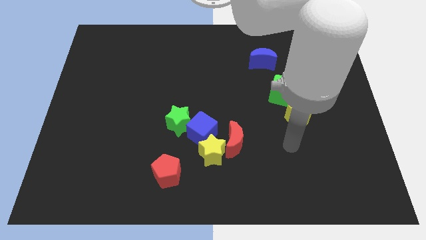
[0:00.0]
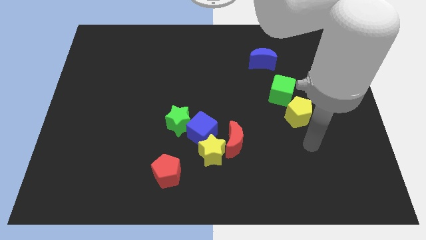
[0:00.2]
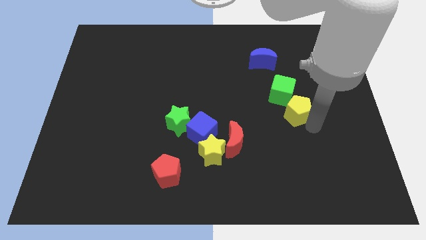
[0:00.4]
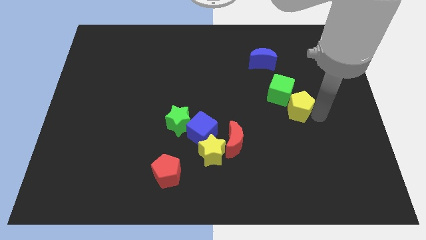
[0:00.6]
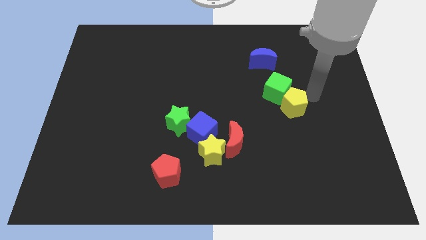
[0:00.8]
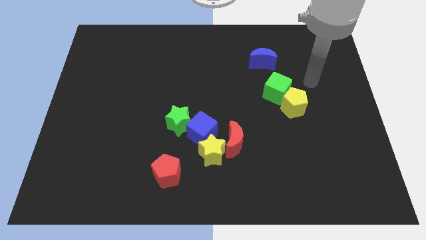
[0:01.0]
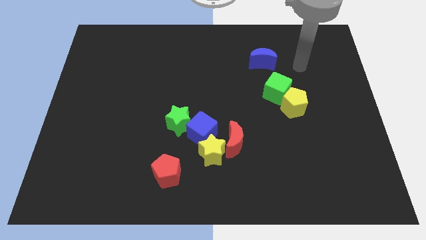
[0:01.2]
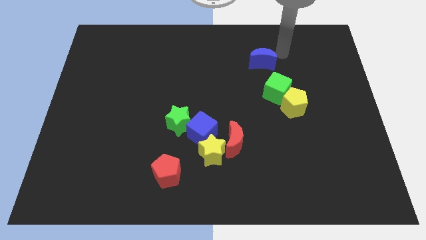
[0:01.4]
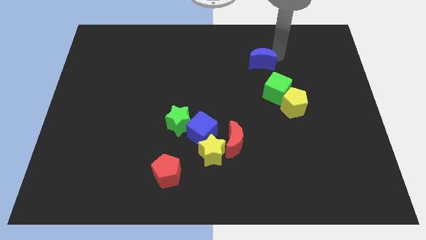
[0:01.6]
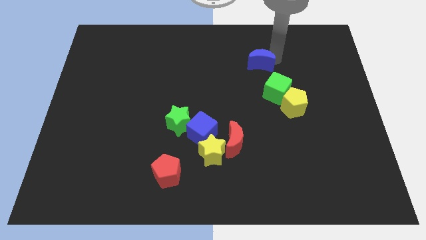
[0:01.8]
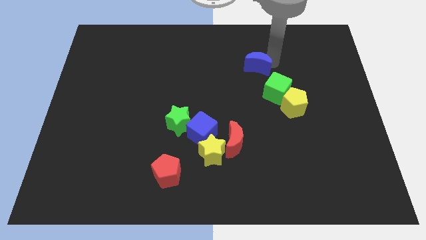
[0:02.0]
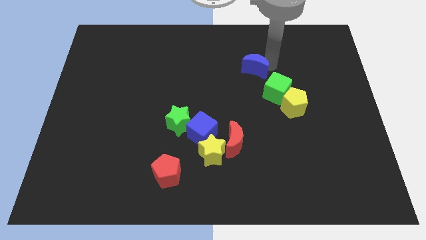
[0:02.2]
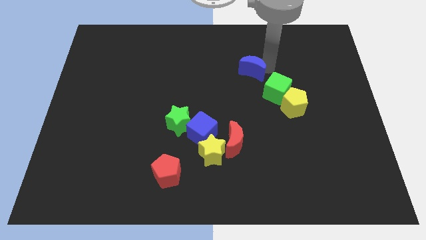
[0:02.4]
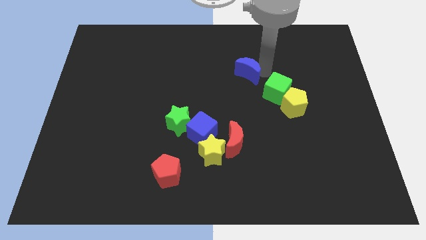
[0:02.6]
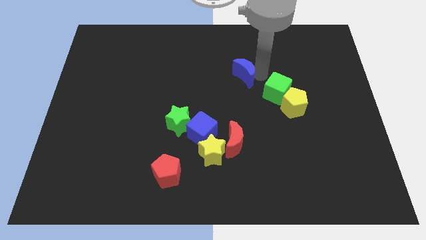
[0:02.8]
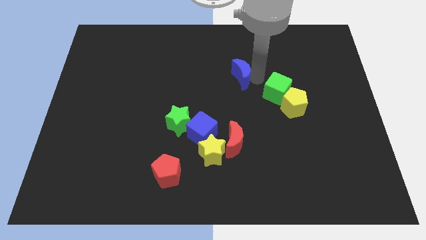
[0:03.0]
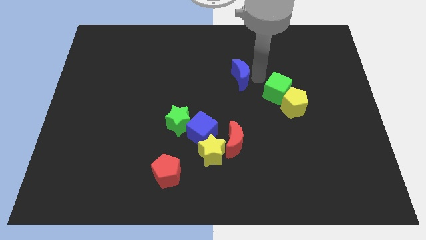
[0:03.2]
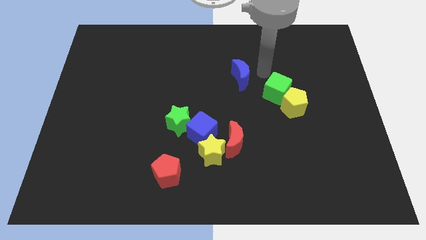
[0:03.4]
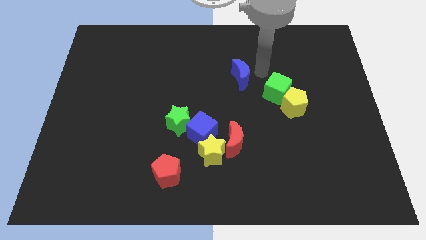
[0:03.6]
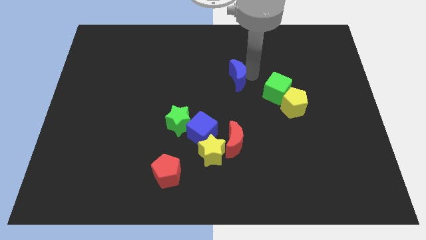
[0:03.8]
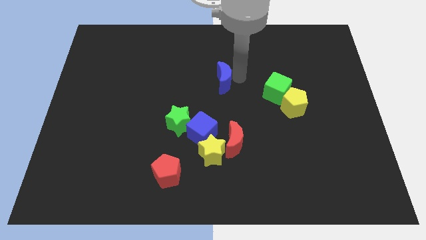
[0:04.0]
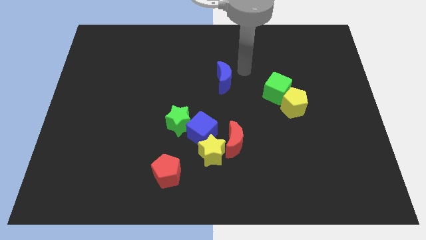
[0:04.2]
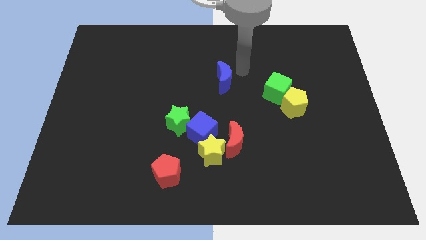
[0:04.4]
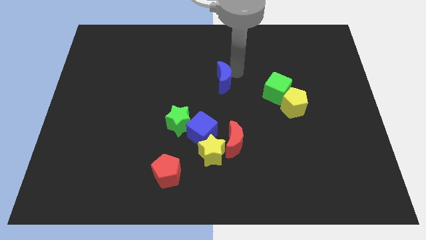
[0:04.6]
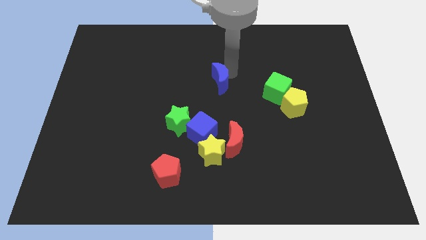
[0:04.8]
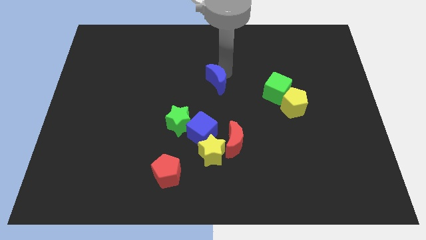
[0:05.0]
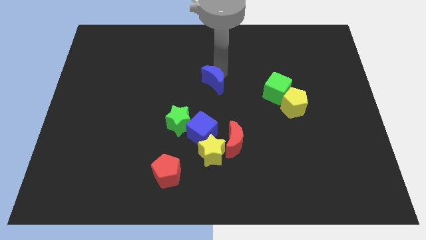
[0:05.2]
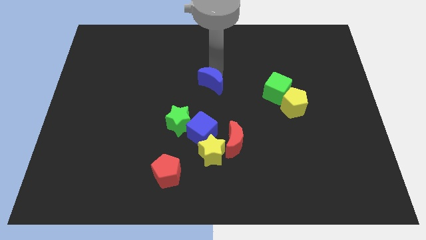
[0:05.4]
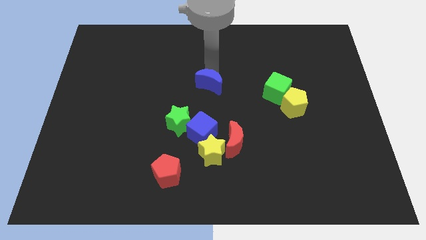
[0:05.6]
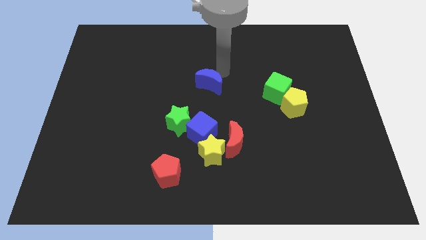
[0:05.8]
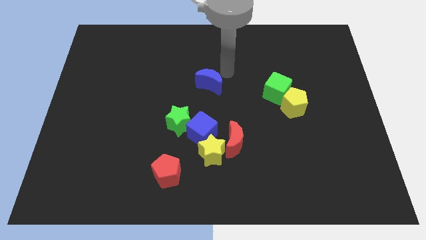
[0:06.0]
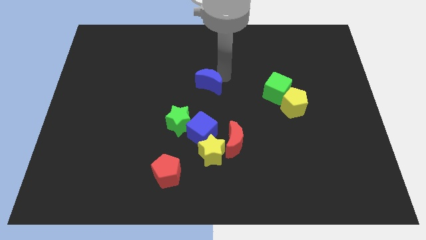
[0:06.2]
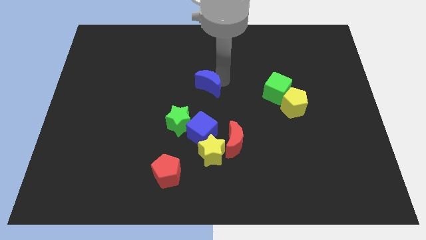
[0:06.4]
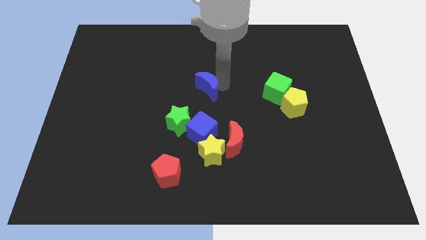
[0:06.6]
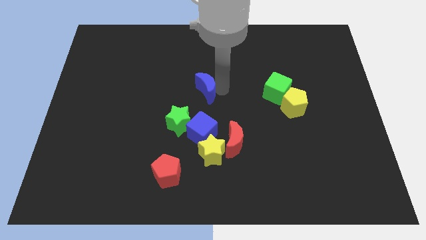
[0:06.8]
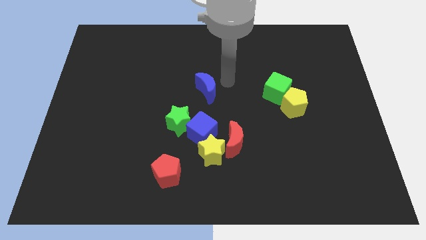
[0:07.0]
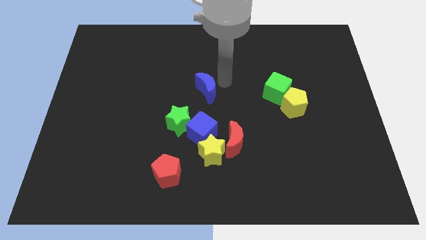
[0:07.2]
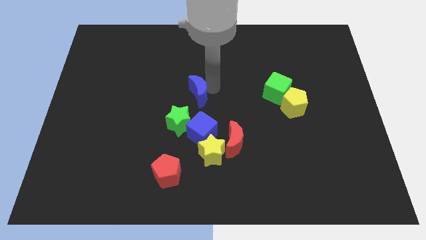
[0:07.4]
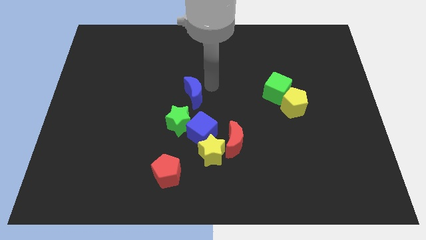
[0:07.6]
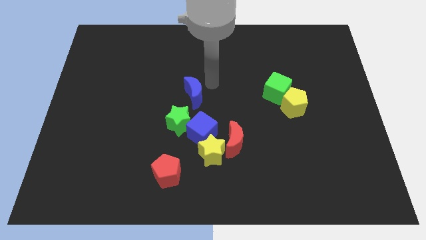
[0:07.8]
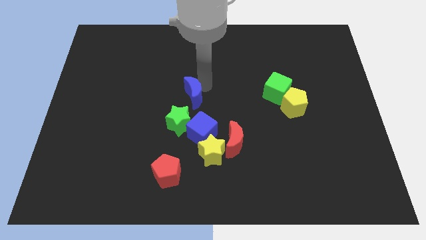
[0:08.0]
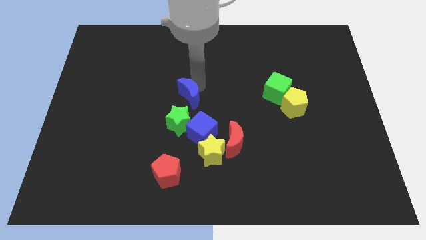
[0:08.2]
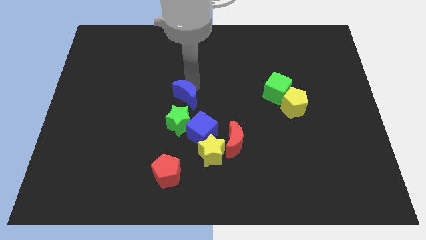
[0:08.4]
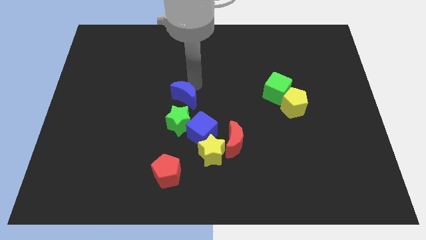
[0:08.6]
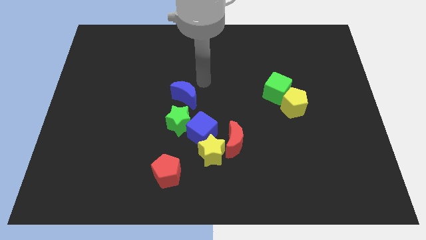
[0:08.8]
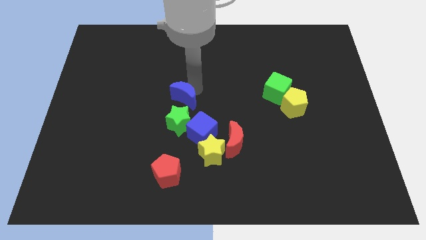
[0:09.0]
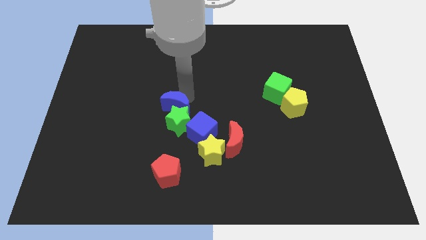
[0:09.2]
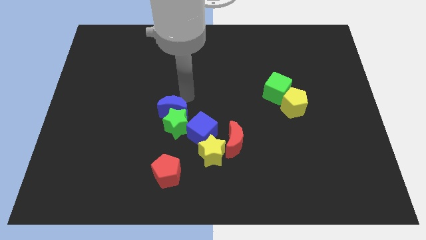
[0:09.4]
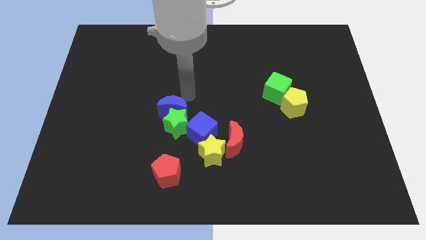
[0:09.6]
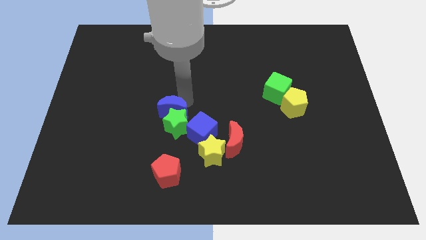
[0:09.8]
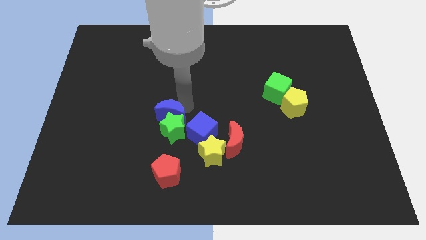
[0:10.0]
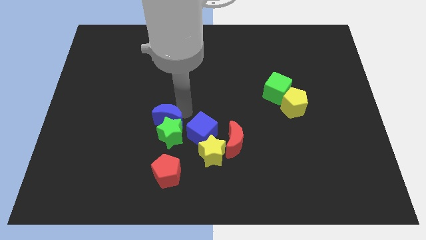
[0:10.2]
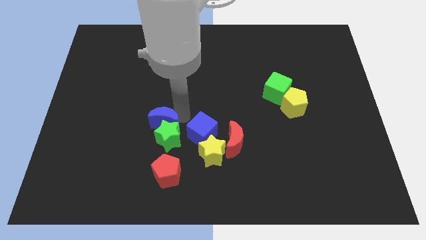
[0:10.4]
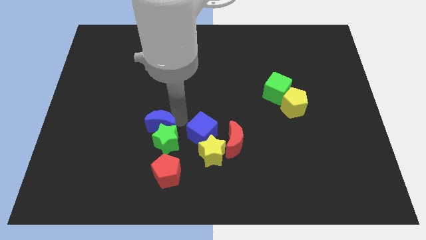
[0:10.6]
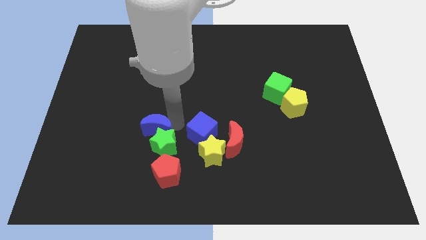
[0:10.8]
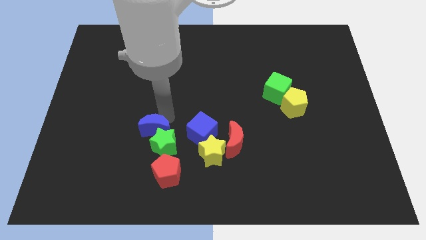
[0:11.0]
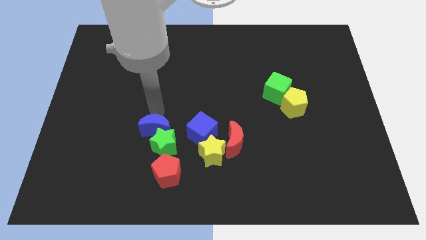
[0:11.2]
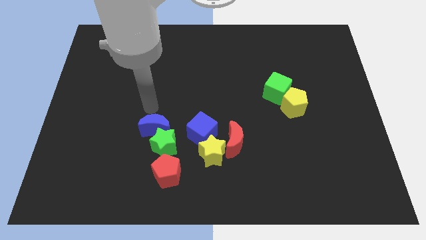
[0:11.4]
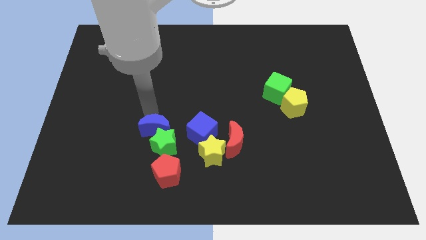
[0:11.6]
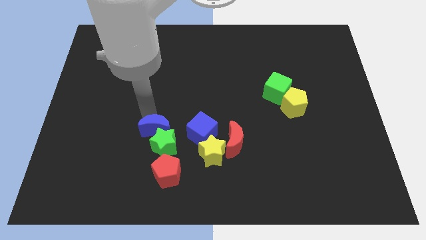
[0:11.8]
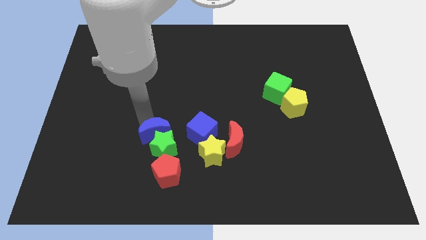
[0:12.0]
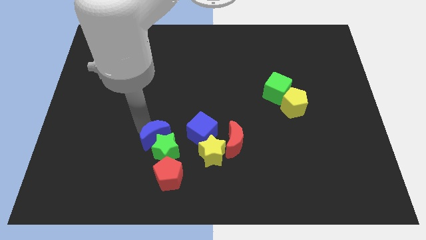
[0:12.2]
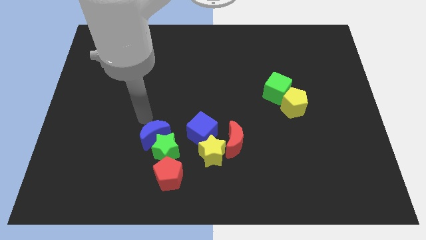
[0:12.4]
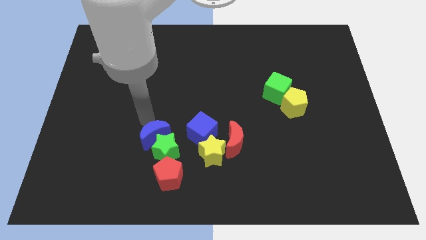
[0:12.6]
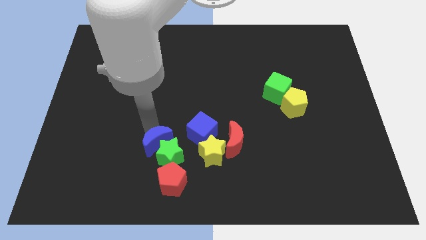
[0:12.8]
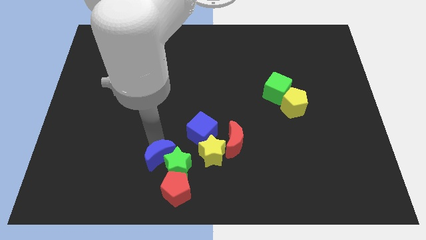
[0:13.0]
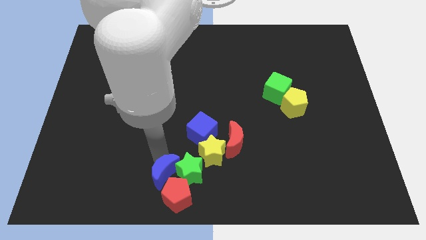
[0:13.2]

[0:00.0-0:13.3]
put the blue moon next to the red pentagon

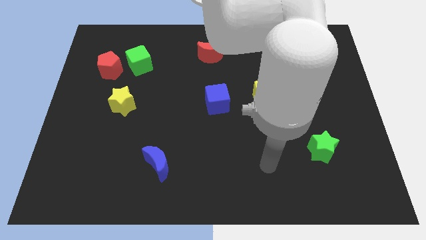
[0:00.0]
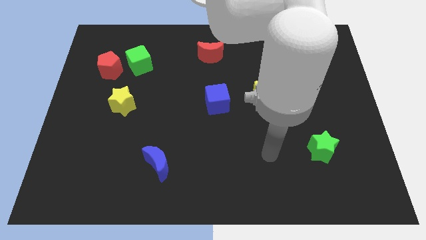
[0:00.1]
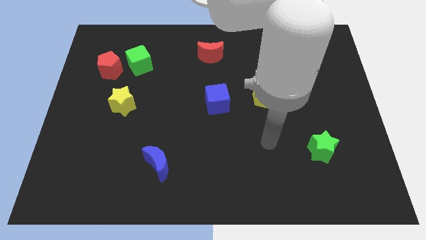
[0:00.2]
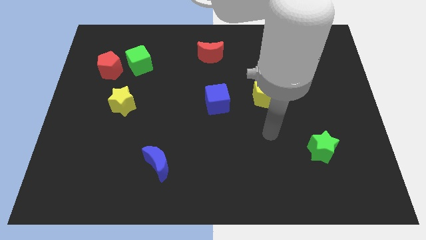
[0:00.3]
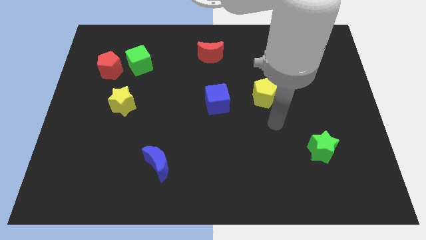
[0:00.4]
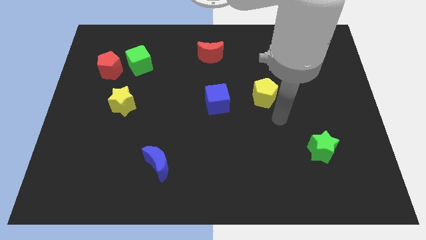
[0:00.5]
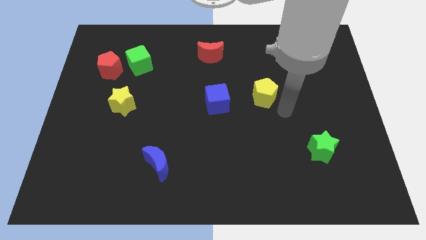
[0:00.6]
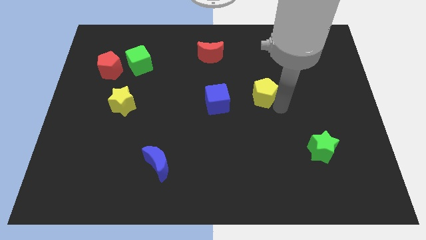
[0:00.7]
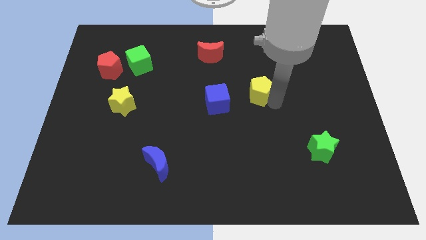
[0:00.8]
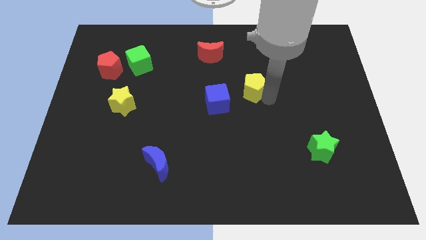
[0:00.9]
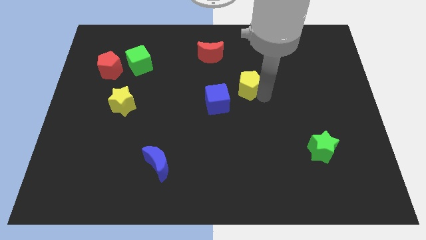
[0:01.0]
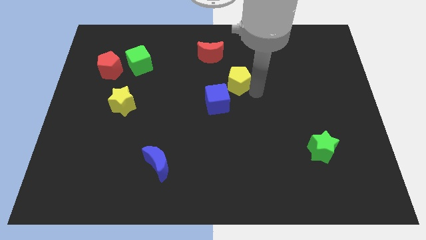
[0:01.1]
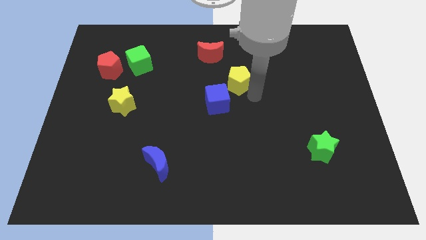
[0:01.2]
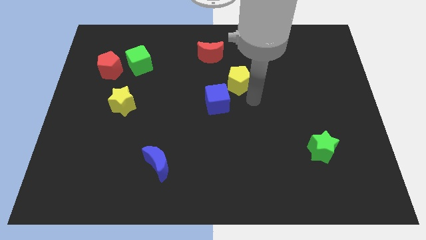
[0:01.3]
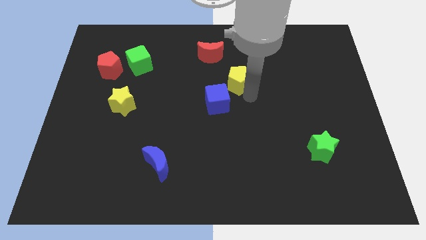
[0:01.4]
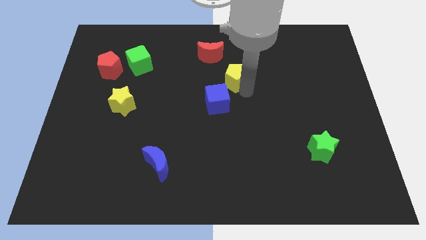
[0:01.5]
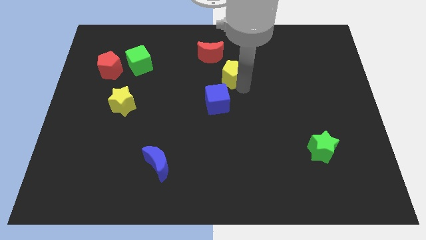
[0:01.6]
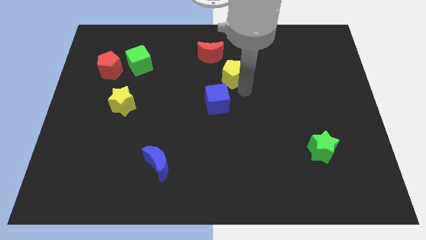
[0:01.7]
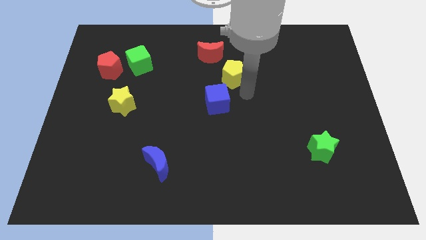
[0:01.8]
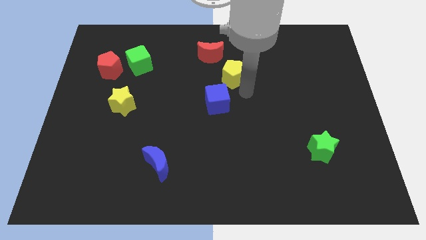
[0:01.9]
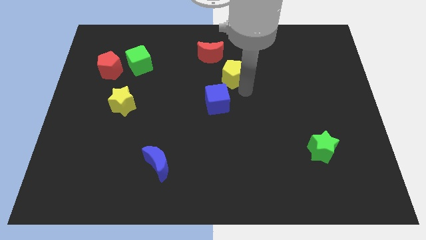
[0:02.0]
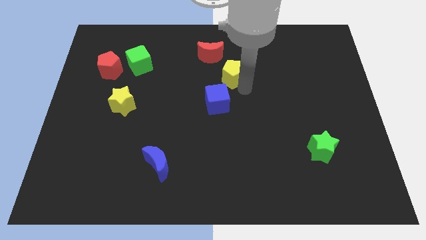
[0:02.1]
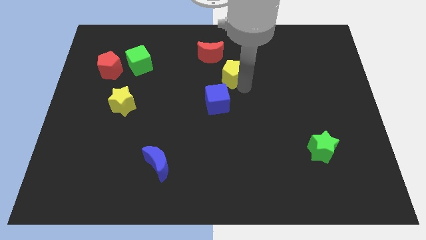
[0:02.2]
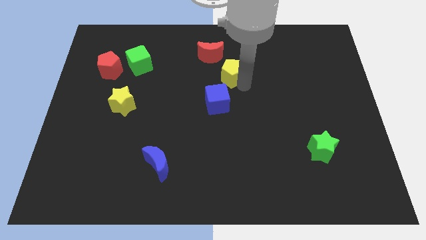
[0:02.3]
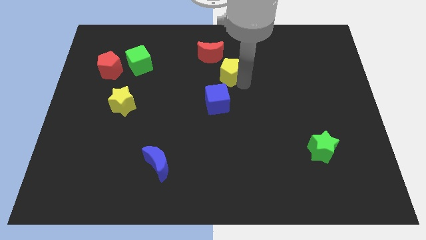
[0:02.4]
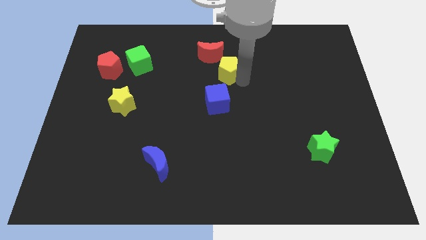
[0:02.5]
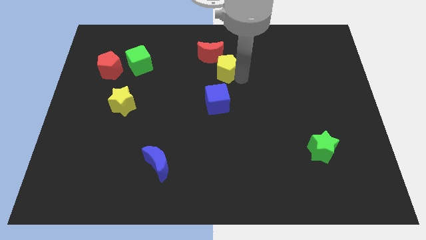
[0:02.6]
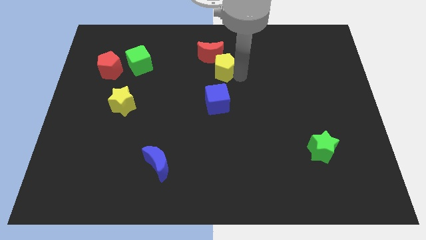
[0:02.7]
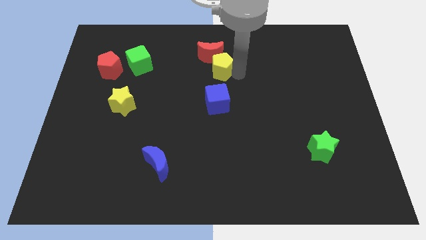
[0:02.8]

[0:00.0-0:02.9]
slide the yellow pentagon close to the red moon
